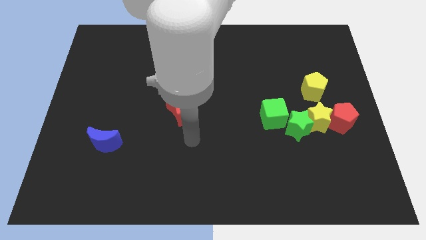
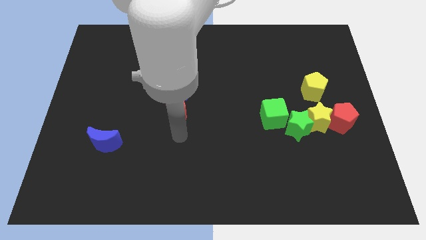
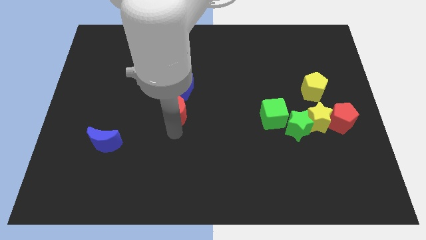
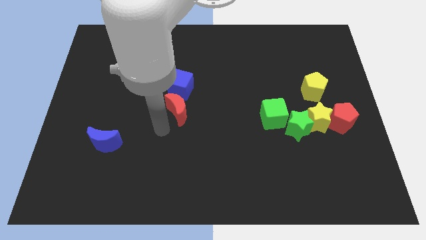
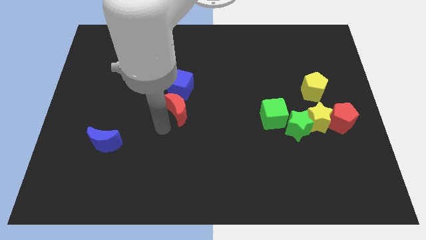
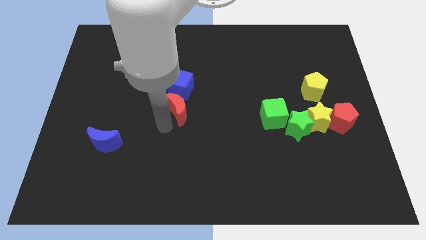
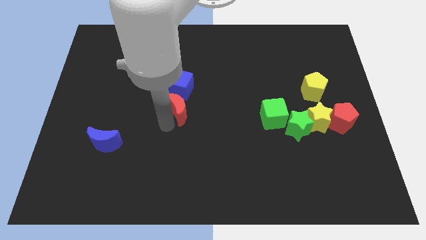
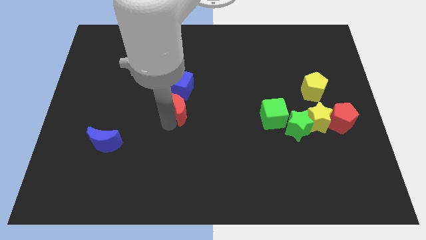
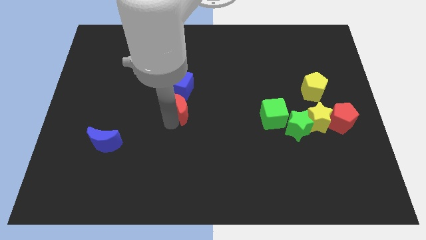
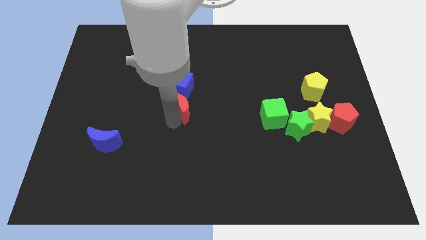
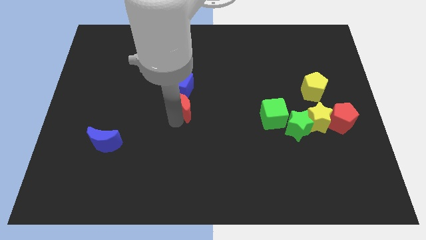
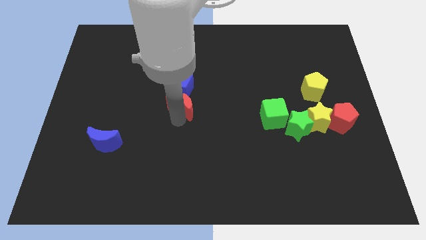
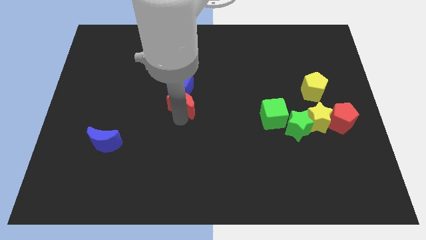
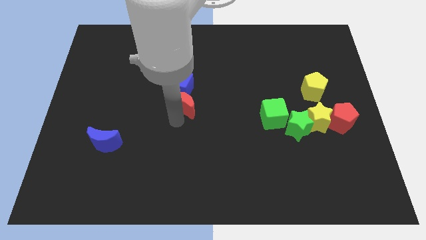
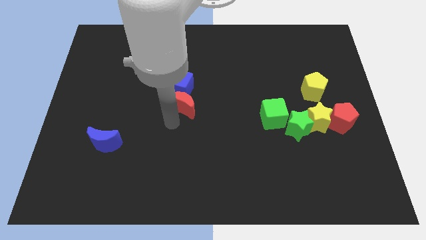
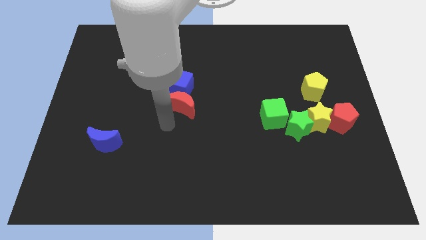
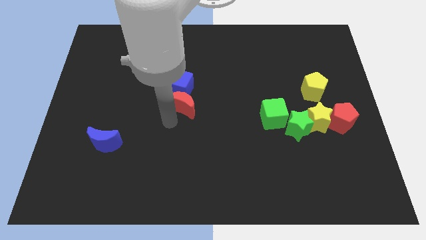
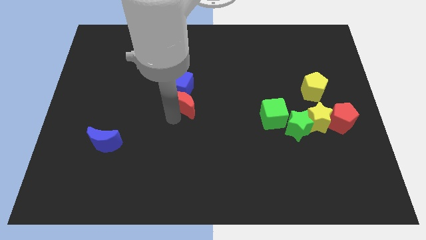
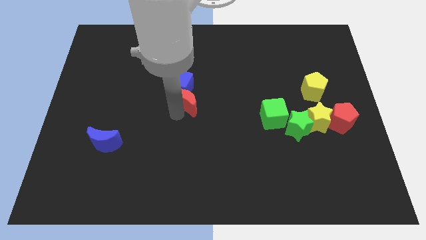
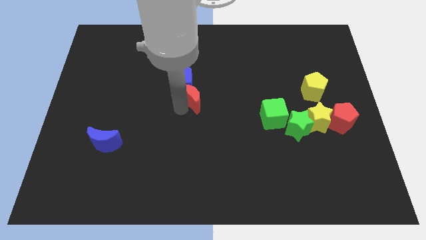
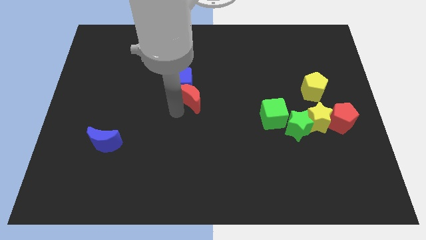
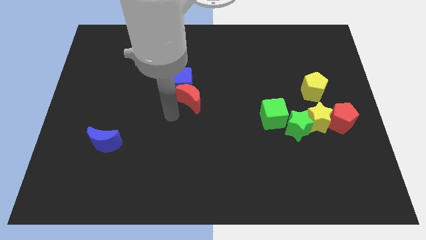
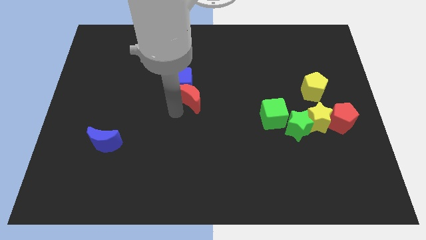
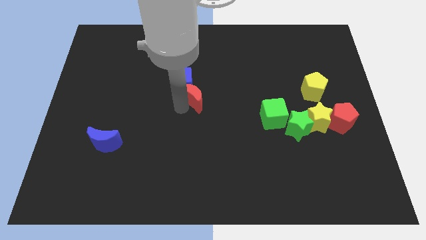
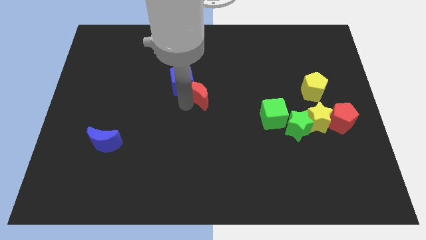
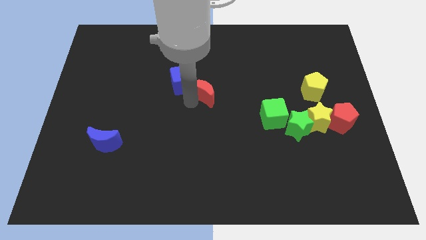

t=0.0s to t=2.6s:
move the red moon a little diagonally up and to the right

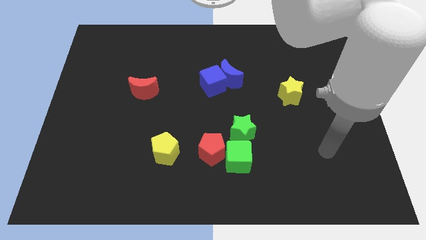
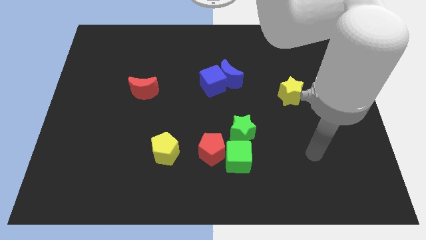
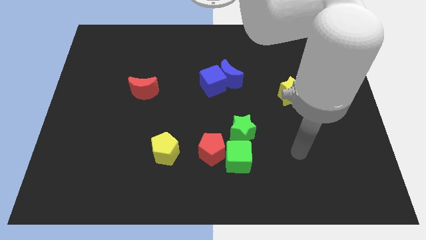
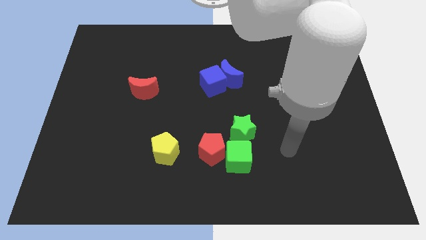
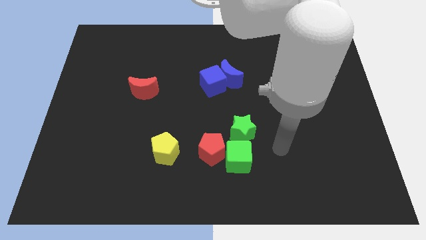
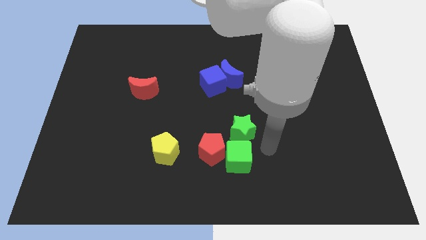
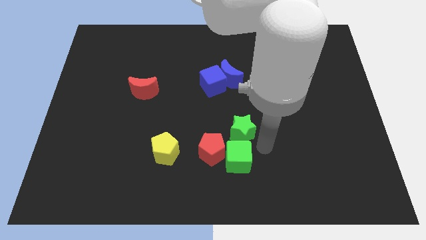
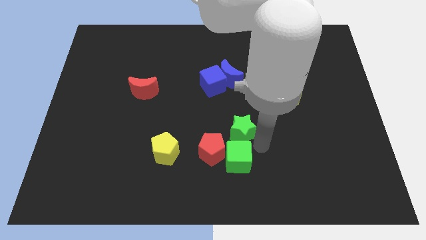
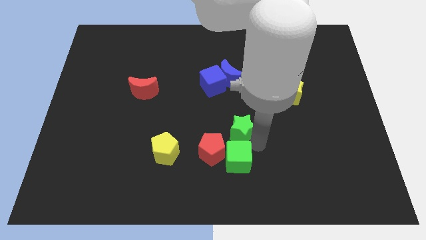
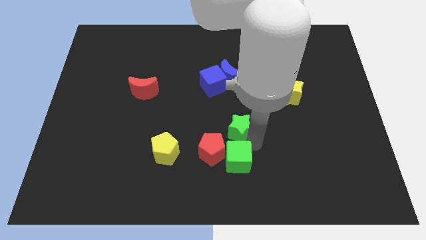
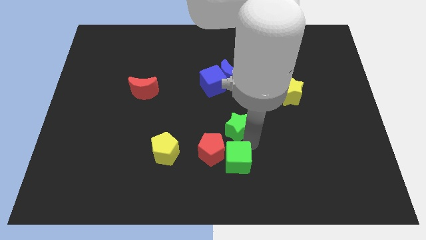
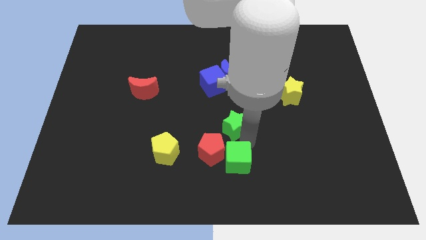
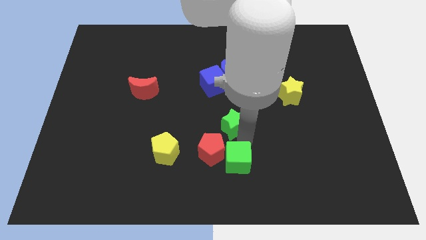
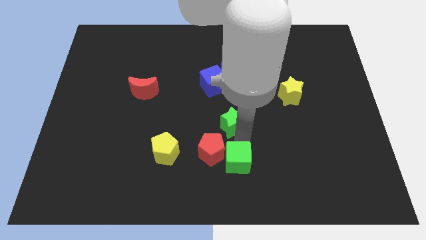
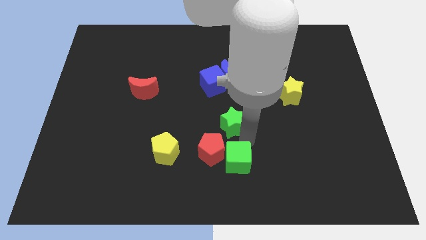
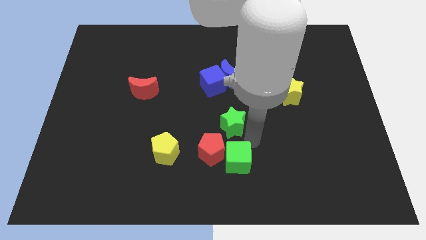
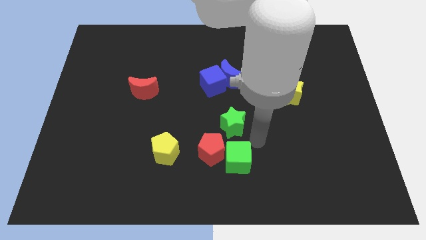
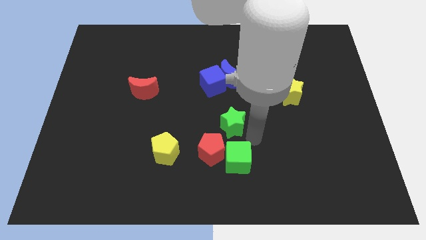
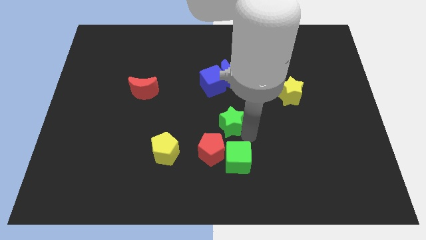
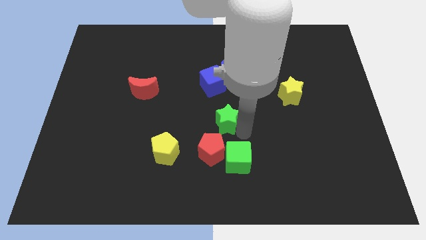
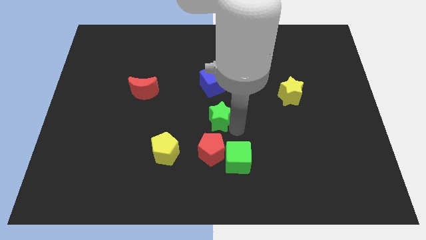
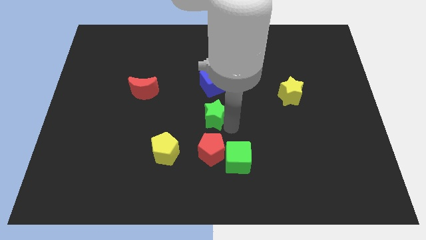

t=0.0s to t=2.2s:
slide the green star up and to the left slightly

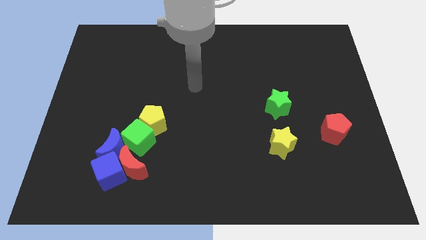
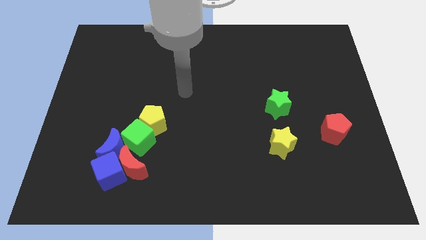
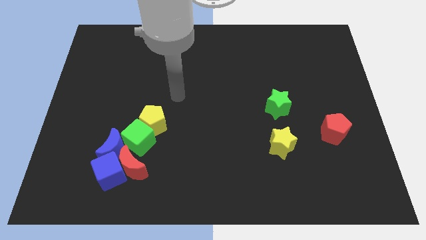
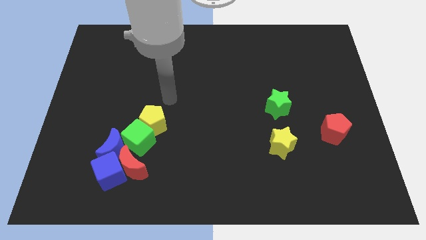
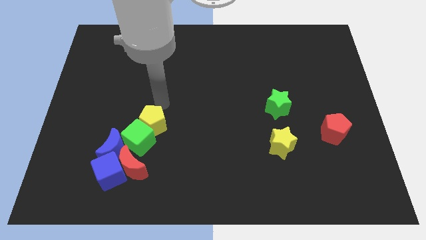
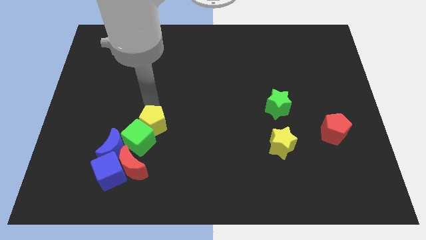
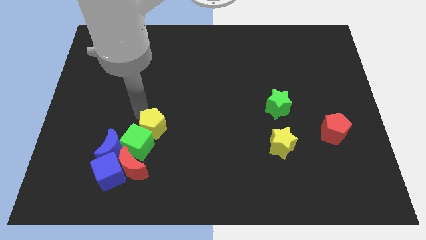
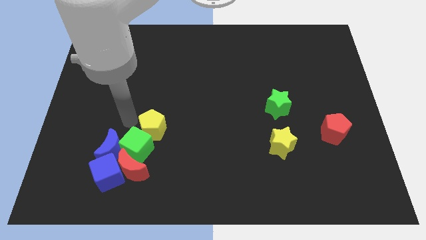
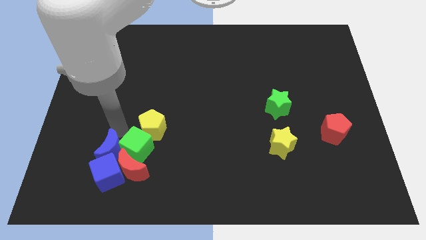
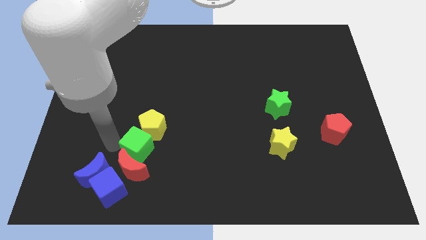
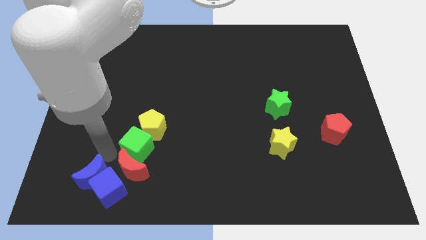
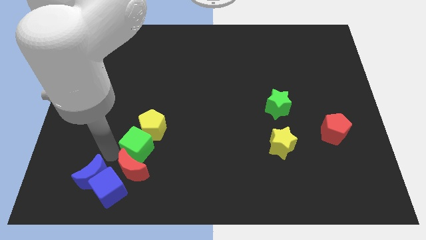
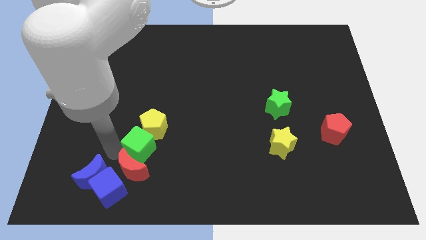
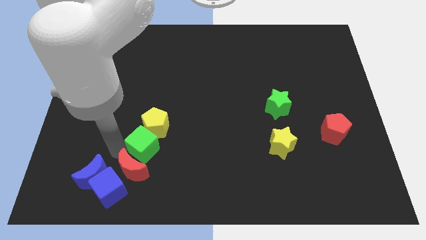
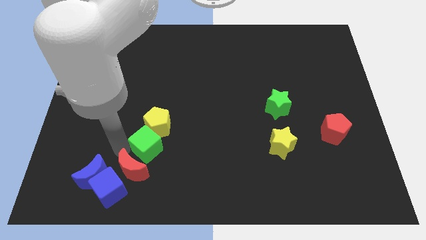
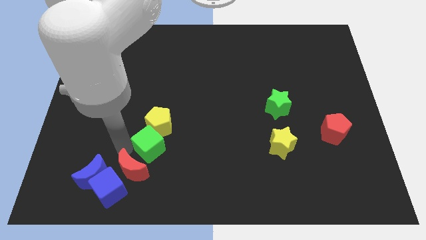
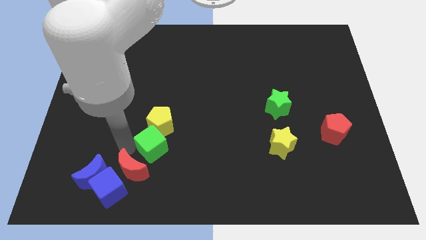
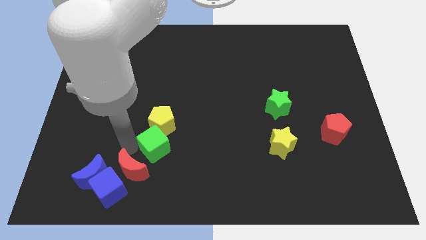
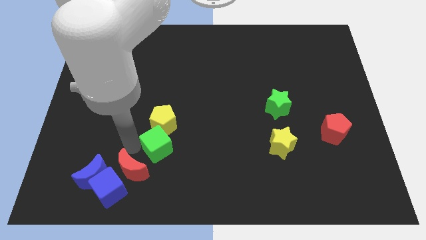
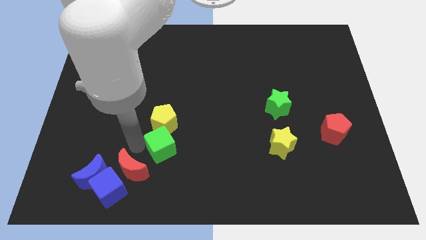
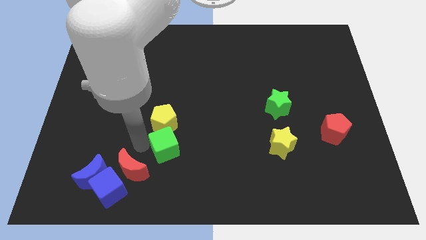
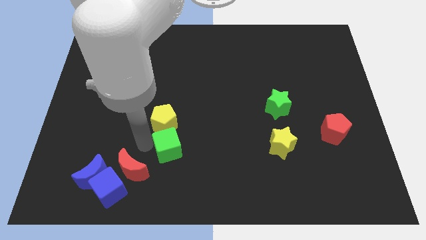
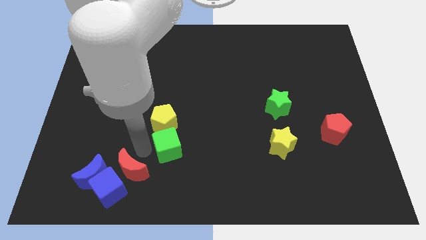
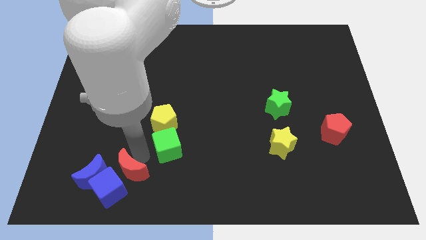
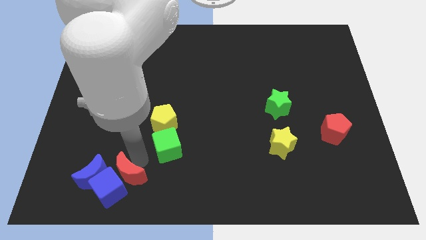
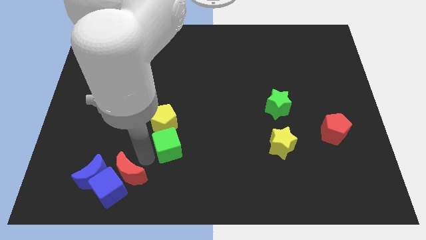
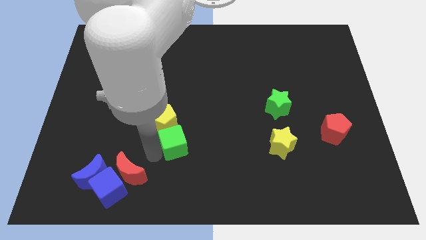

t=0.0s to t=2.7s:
slide the green cube to the right a little bit

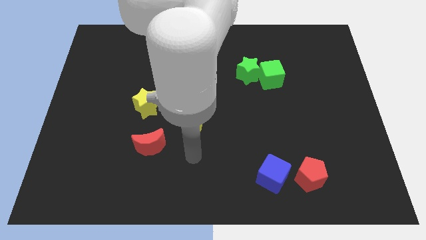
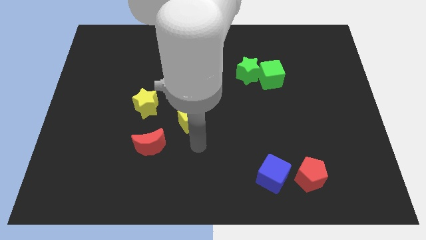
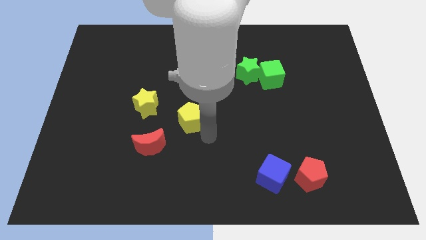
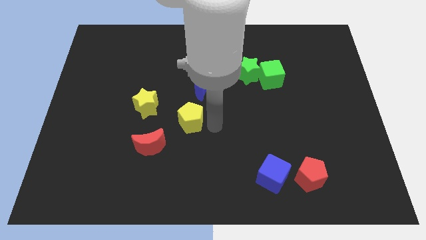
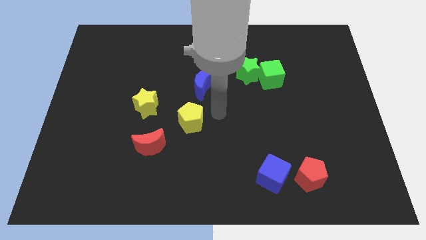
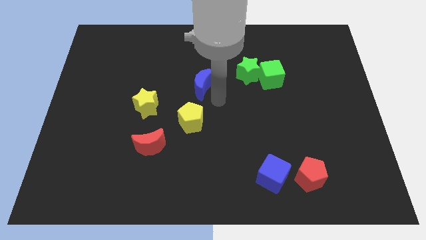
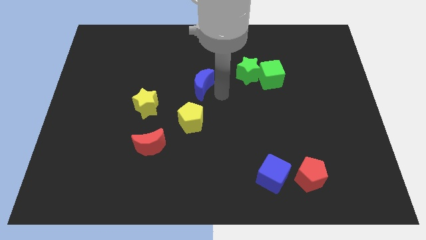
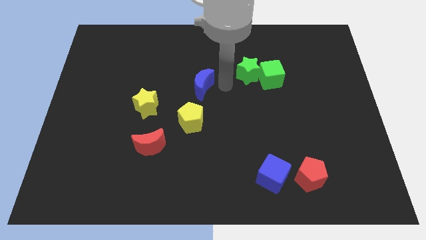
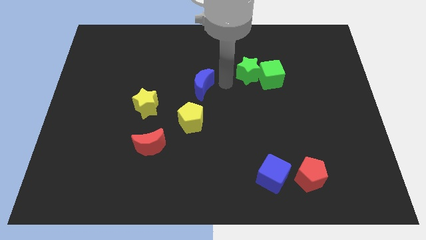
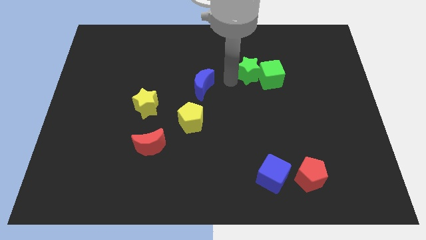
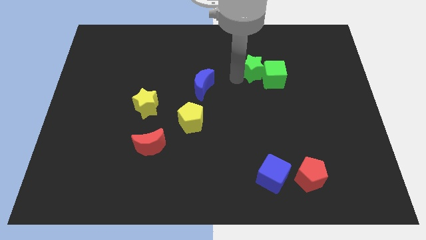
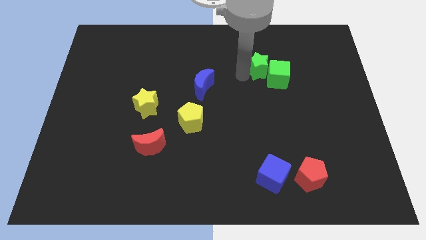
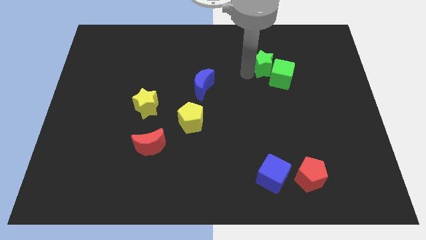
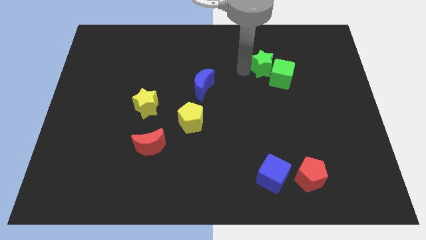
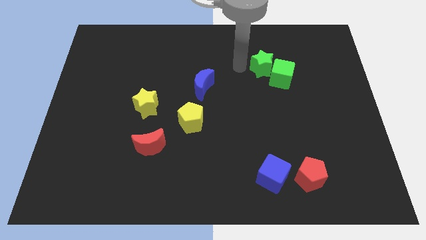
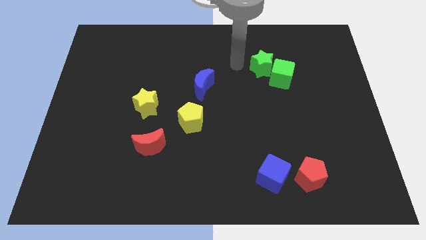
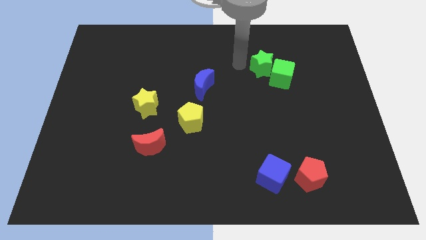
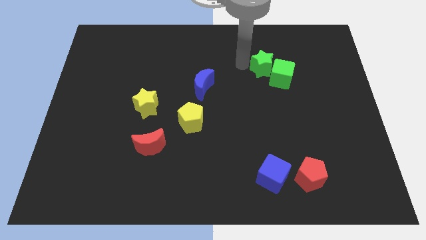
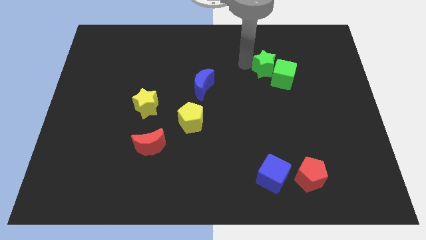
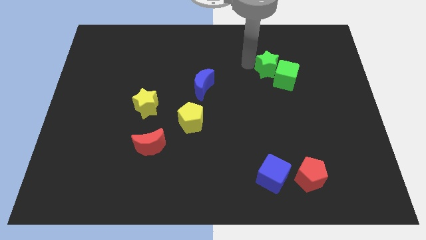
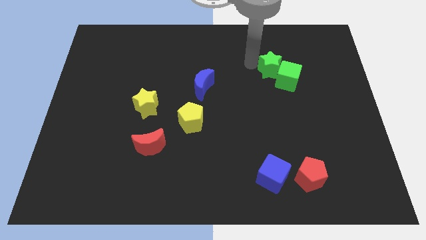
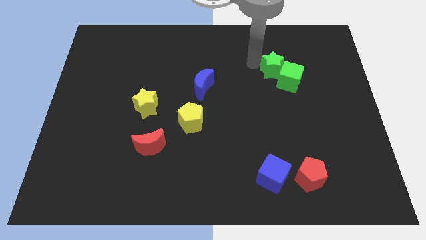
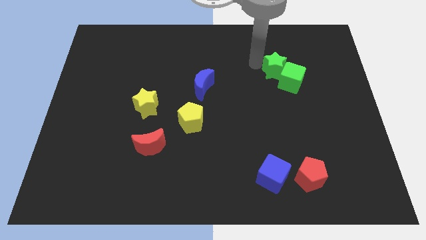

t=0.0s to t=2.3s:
push the green star a little right
